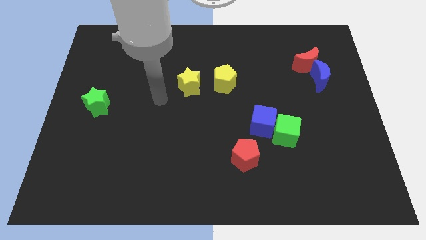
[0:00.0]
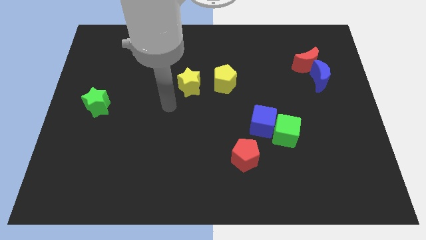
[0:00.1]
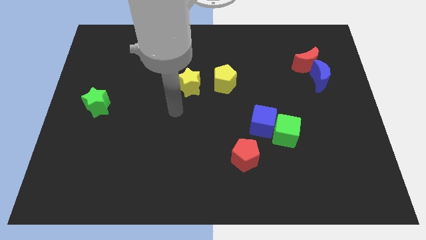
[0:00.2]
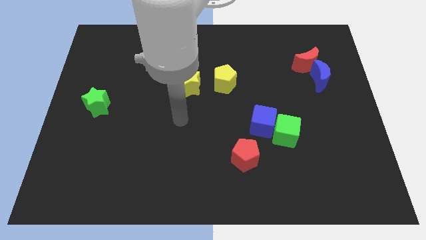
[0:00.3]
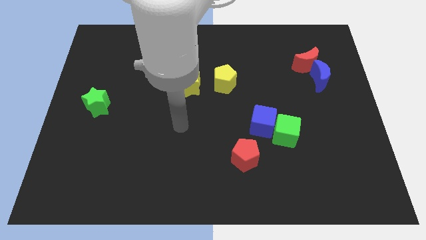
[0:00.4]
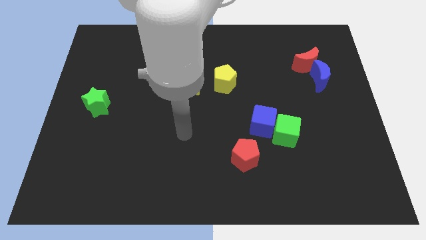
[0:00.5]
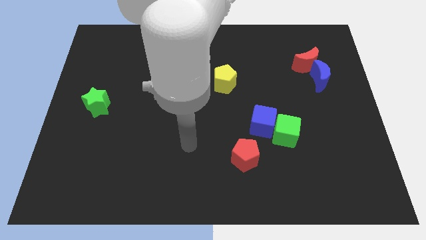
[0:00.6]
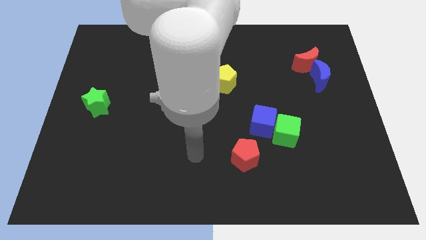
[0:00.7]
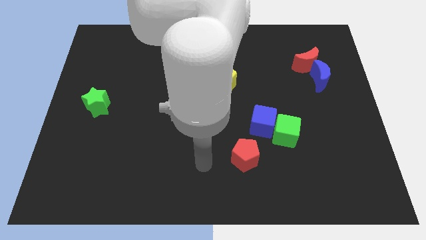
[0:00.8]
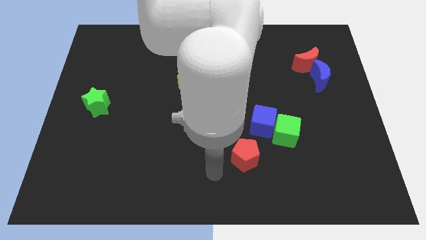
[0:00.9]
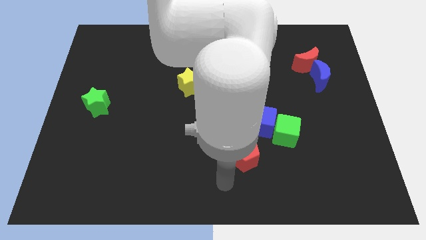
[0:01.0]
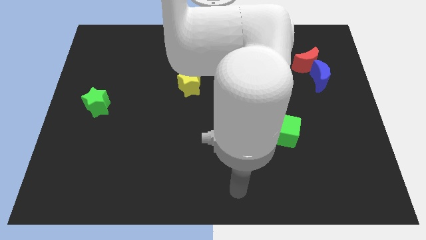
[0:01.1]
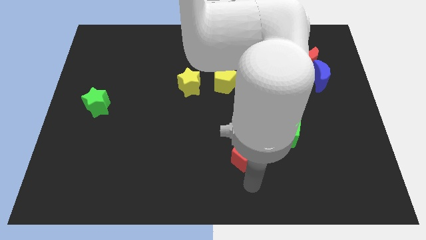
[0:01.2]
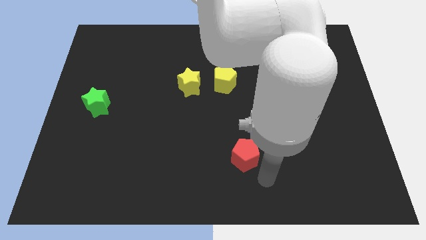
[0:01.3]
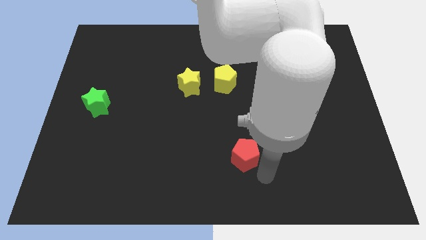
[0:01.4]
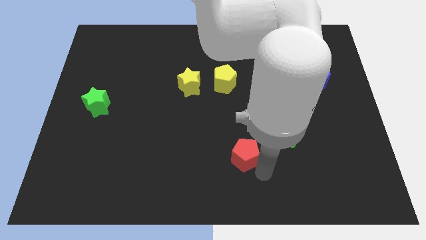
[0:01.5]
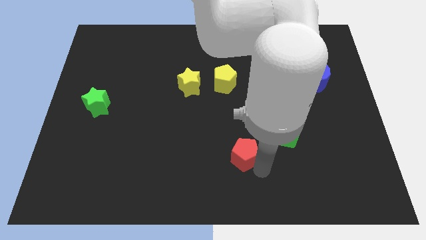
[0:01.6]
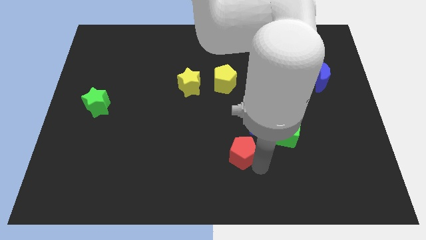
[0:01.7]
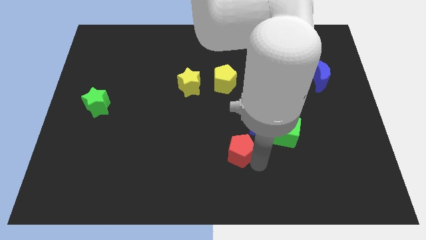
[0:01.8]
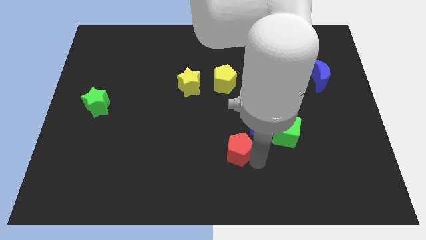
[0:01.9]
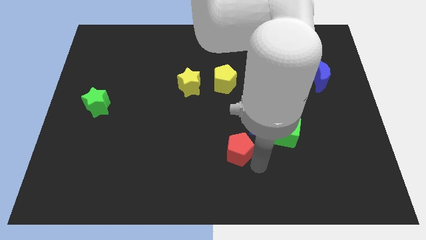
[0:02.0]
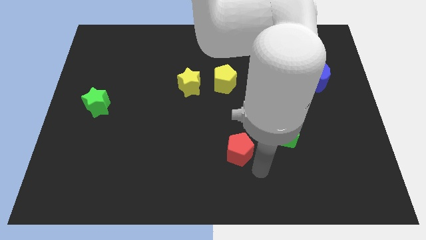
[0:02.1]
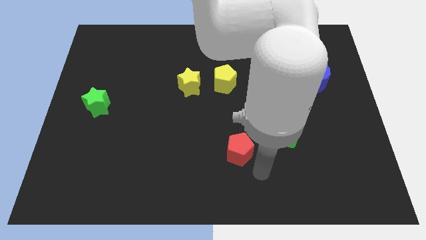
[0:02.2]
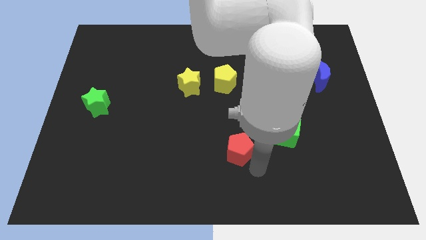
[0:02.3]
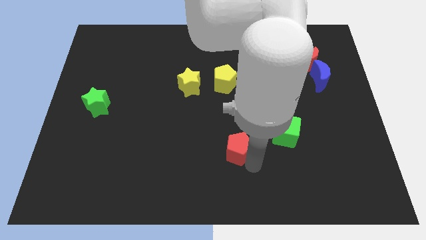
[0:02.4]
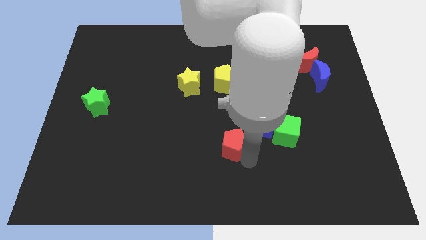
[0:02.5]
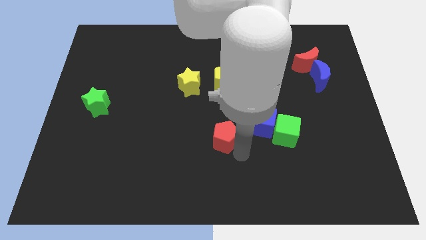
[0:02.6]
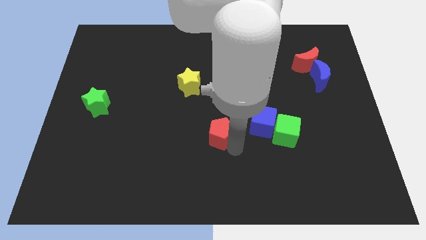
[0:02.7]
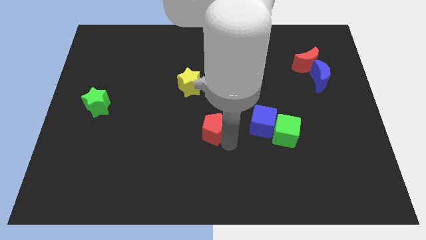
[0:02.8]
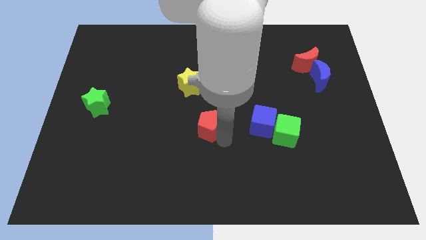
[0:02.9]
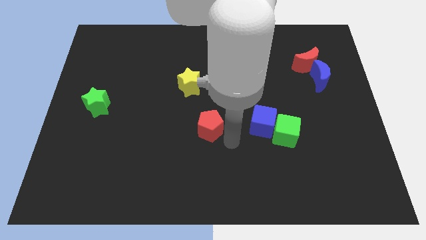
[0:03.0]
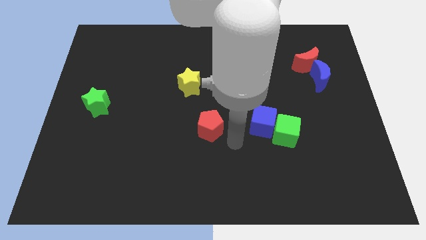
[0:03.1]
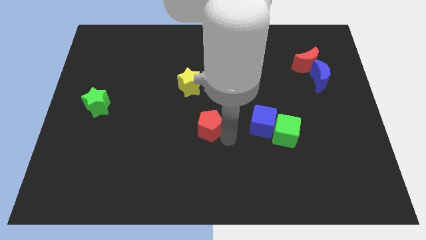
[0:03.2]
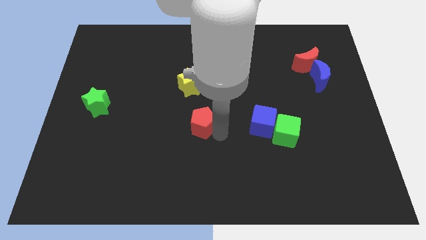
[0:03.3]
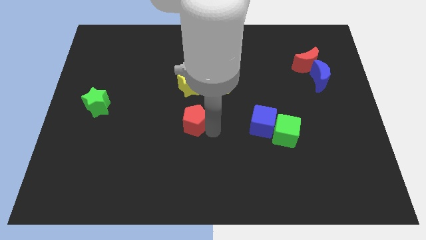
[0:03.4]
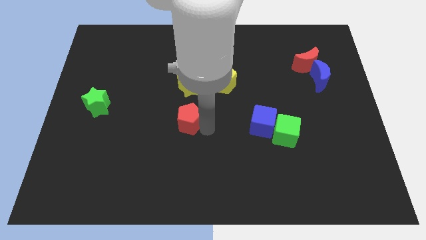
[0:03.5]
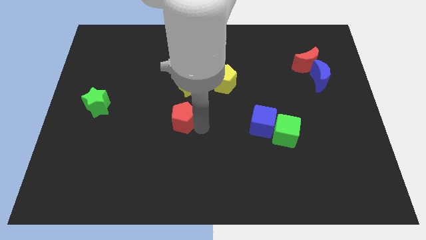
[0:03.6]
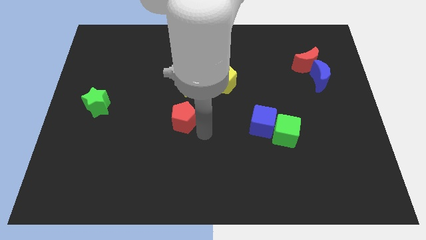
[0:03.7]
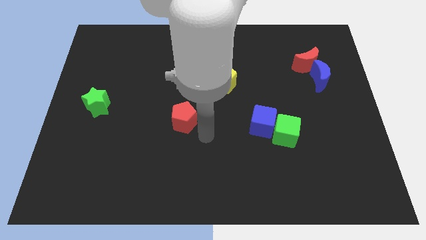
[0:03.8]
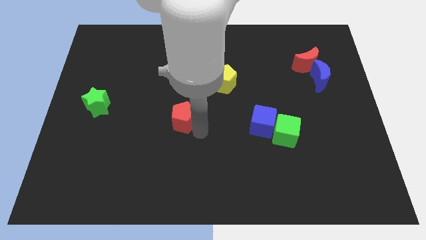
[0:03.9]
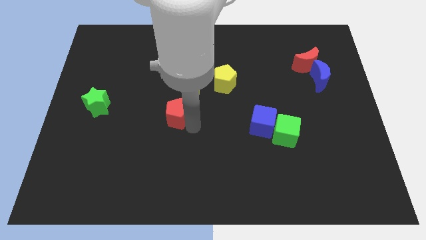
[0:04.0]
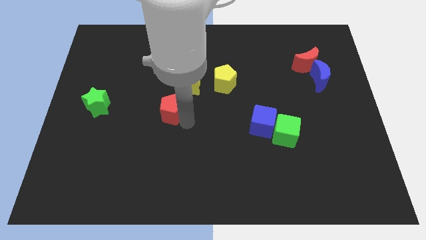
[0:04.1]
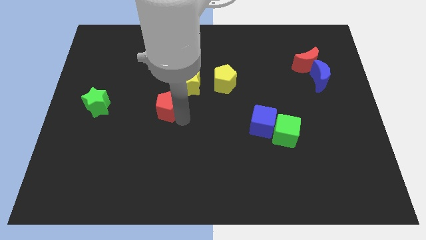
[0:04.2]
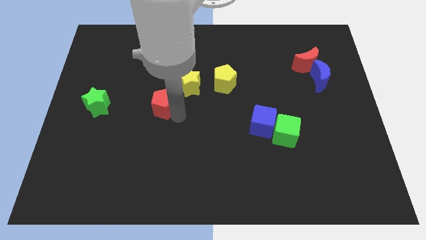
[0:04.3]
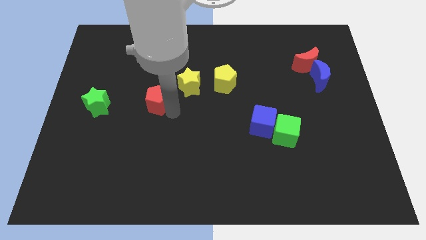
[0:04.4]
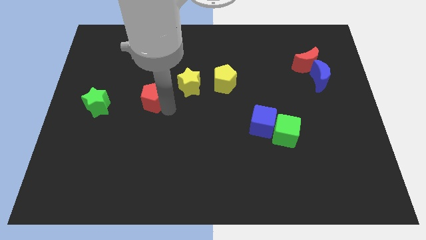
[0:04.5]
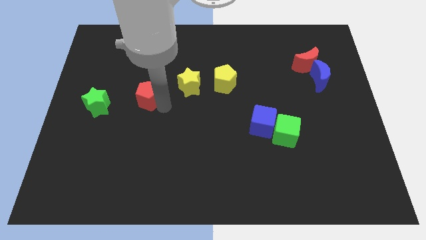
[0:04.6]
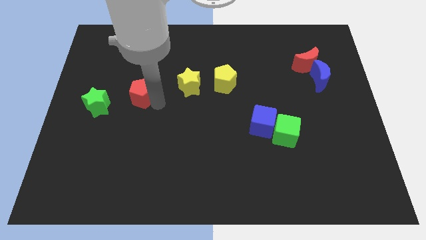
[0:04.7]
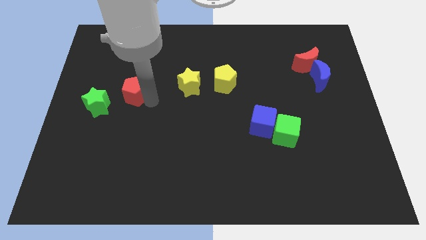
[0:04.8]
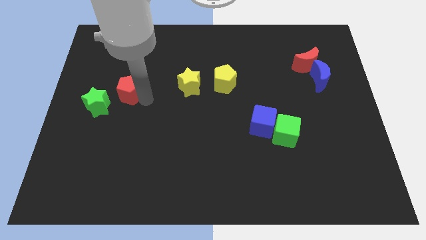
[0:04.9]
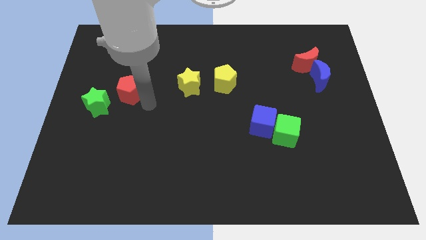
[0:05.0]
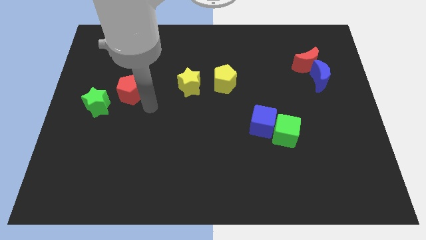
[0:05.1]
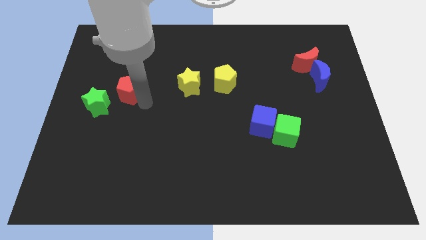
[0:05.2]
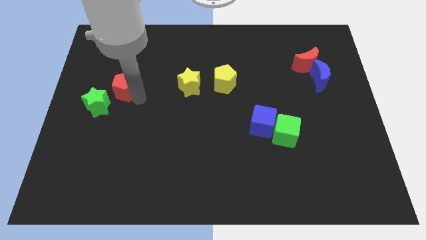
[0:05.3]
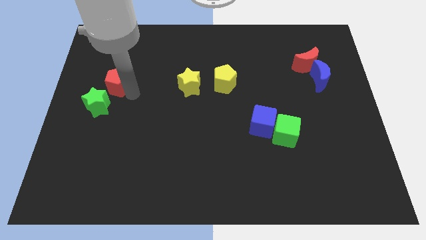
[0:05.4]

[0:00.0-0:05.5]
put the red pentagon to the top side of the green star

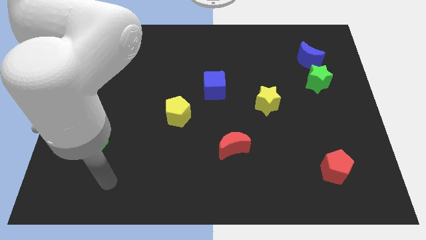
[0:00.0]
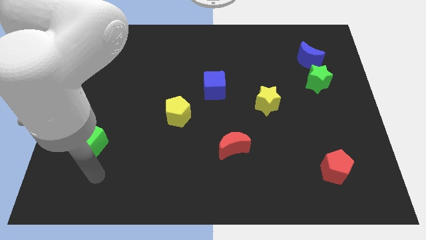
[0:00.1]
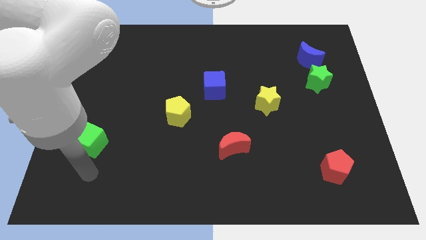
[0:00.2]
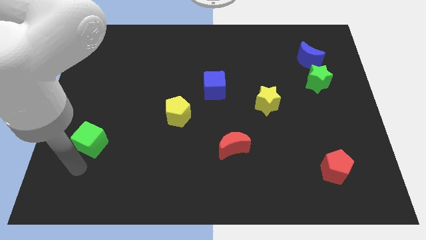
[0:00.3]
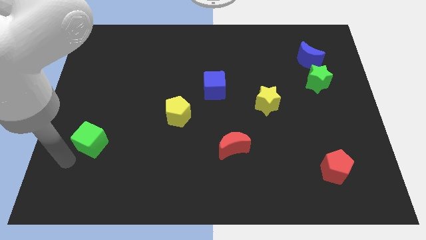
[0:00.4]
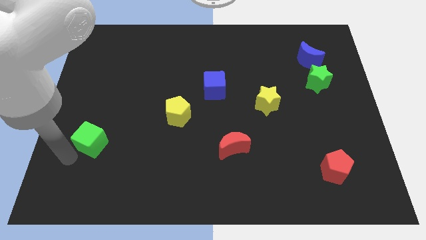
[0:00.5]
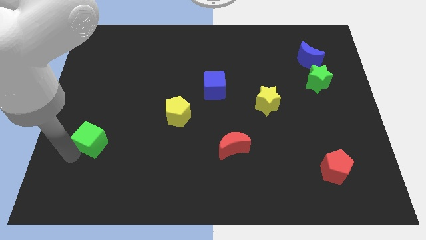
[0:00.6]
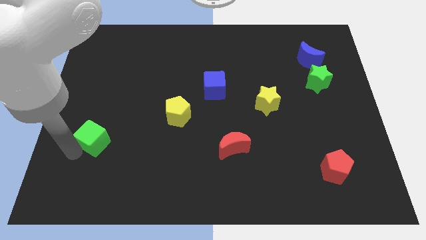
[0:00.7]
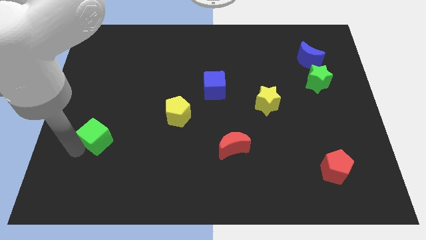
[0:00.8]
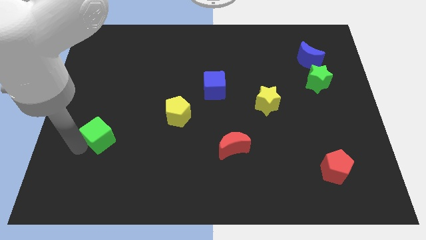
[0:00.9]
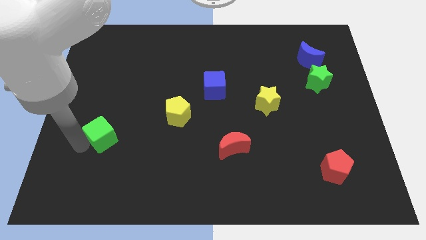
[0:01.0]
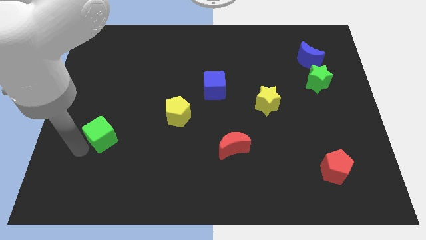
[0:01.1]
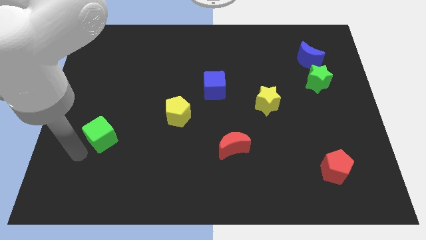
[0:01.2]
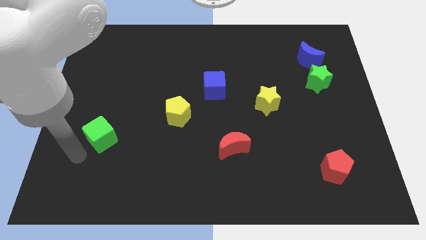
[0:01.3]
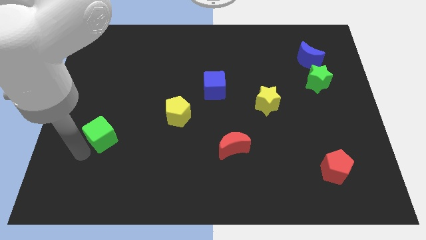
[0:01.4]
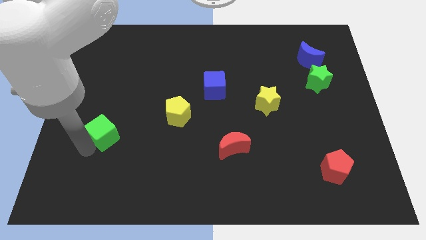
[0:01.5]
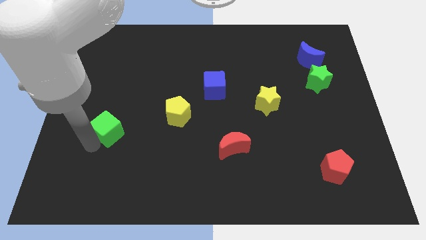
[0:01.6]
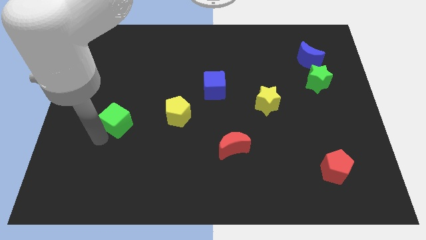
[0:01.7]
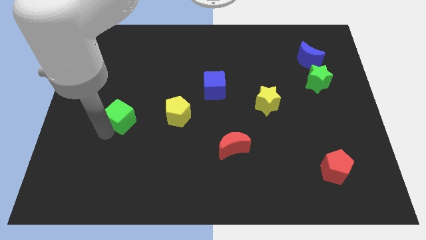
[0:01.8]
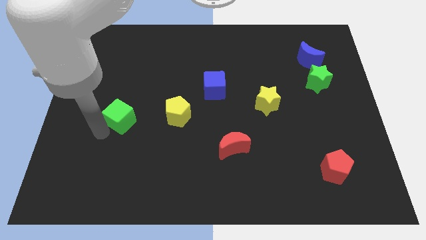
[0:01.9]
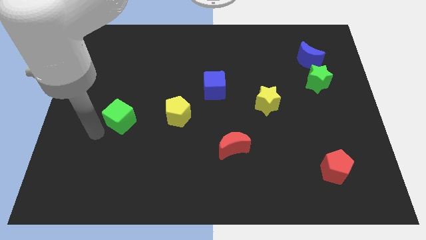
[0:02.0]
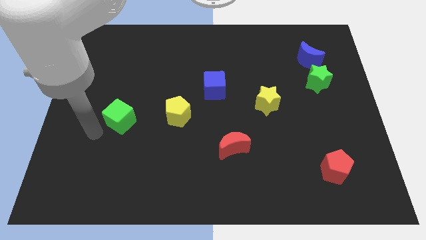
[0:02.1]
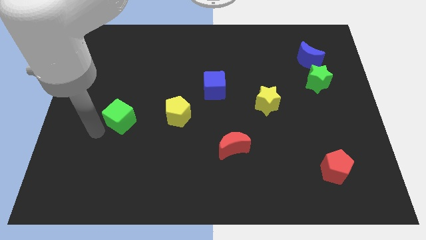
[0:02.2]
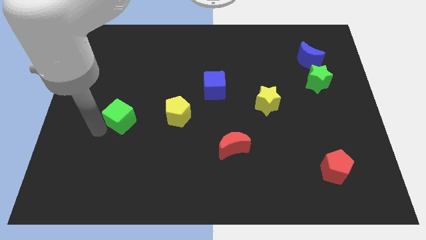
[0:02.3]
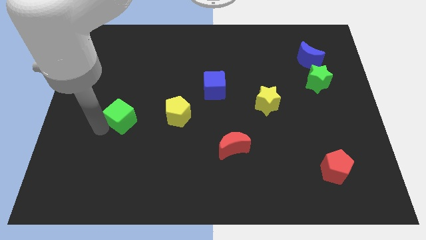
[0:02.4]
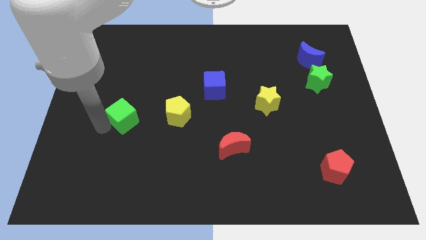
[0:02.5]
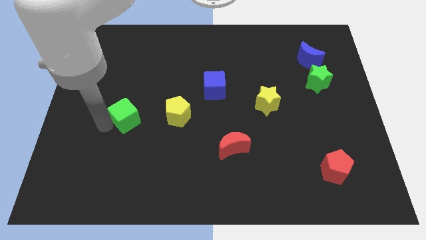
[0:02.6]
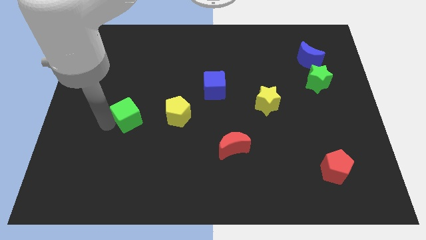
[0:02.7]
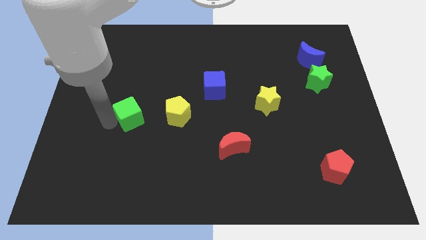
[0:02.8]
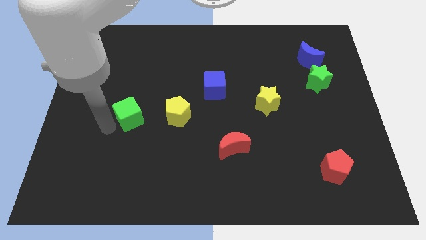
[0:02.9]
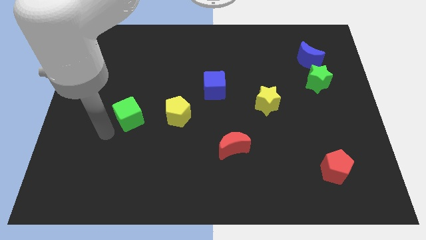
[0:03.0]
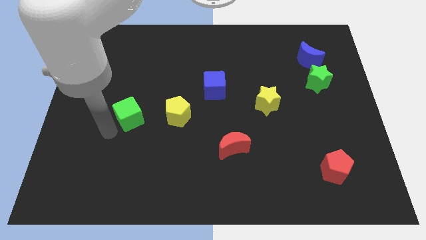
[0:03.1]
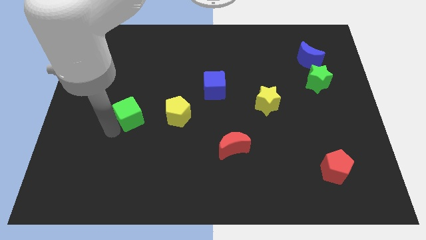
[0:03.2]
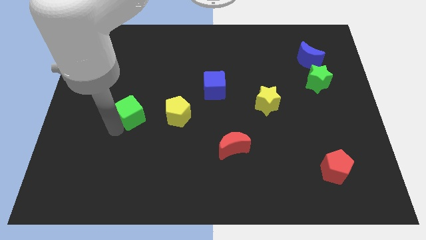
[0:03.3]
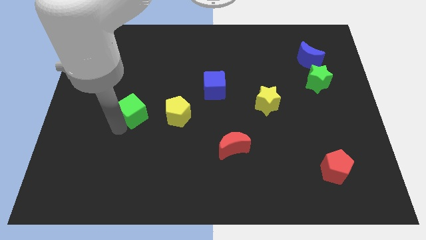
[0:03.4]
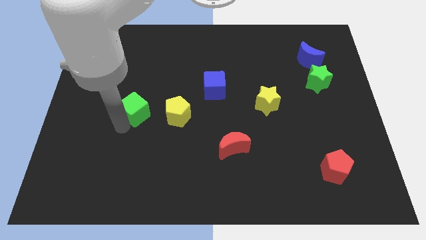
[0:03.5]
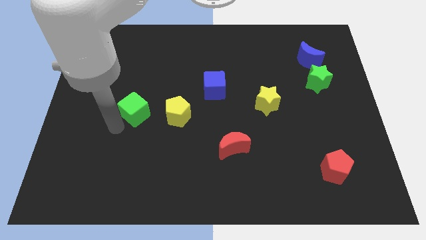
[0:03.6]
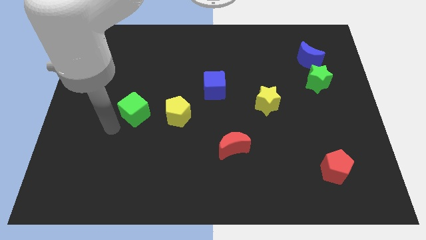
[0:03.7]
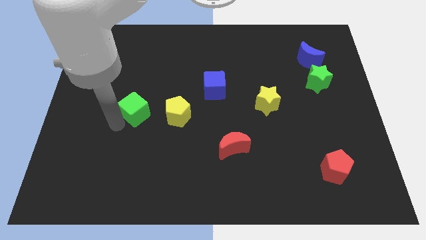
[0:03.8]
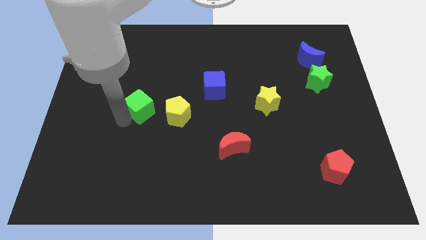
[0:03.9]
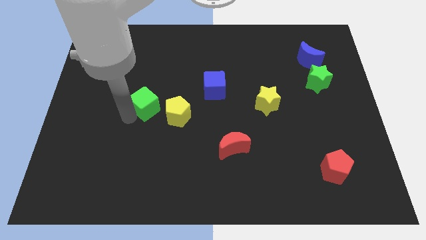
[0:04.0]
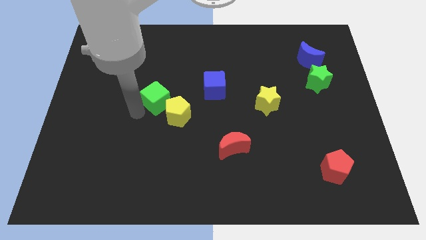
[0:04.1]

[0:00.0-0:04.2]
put the green cube to the left side of the blue cube
